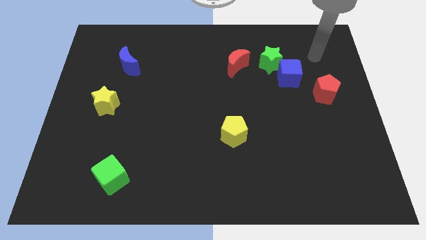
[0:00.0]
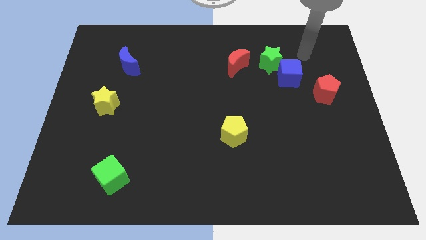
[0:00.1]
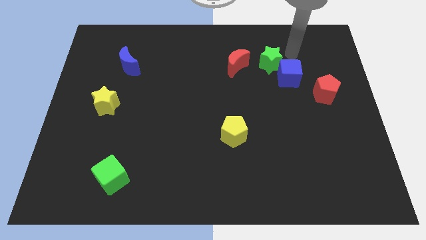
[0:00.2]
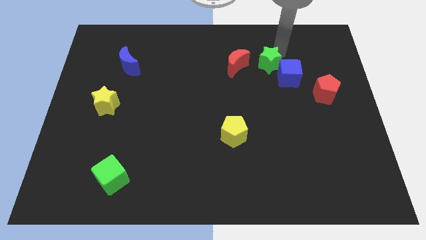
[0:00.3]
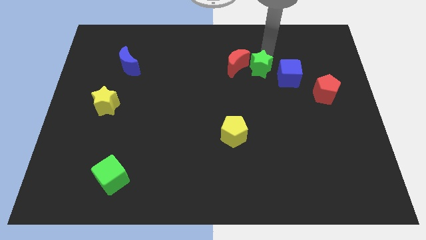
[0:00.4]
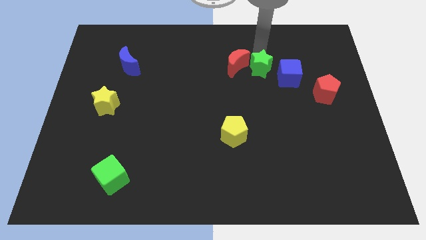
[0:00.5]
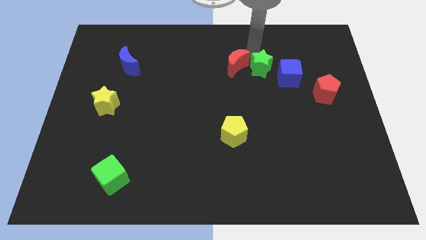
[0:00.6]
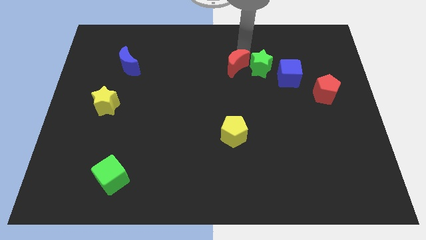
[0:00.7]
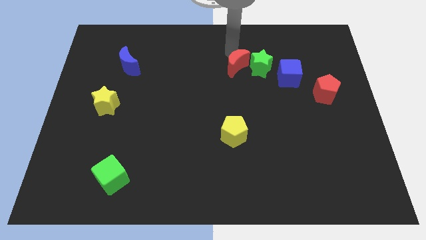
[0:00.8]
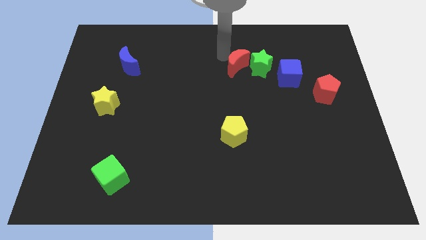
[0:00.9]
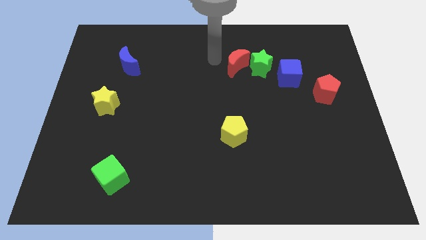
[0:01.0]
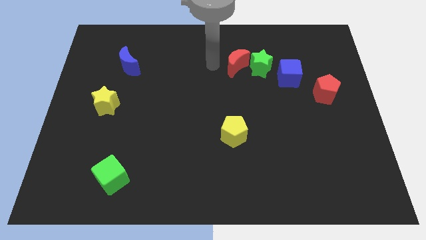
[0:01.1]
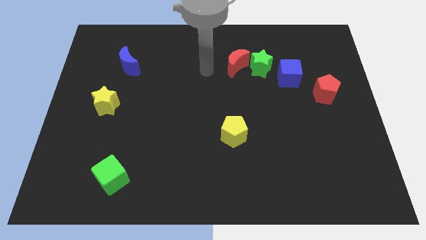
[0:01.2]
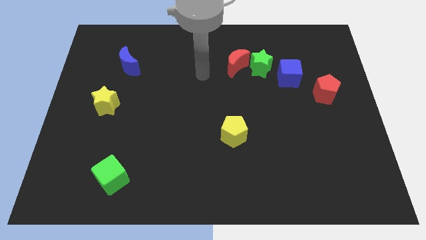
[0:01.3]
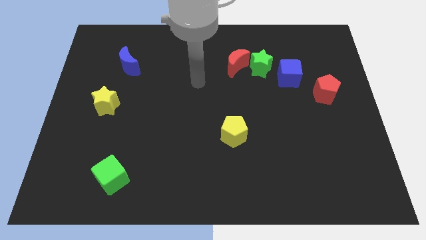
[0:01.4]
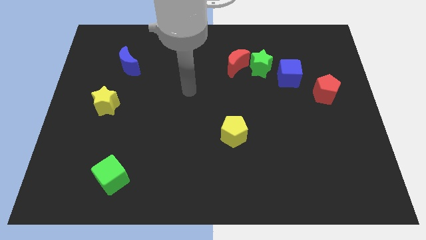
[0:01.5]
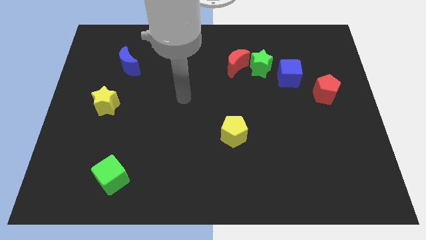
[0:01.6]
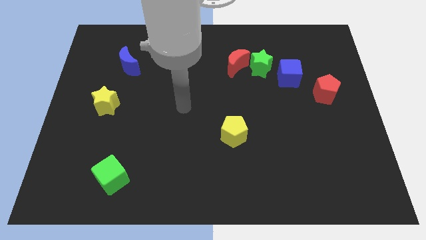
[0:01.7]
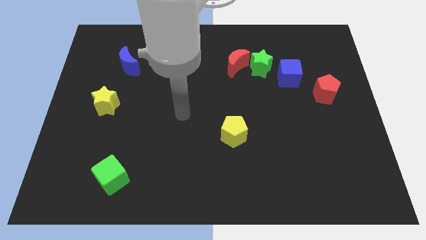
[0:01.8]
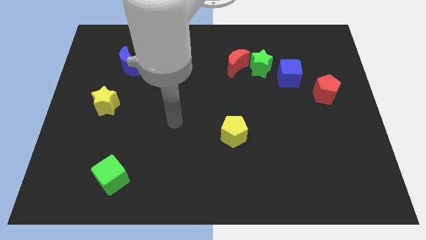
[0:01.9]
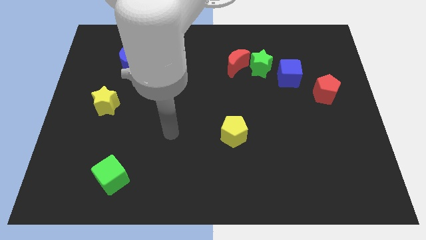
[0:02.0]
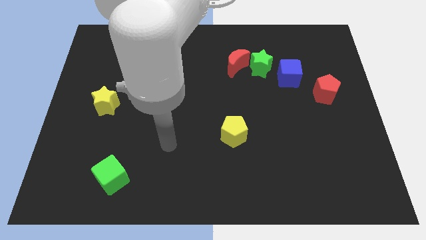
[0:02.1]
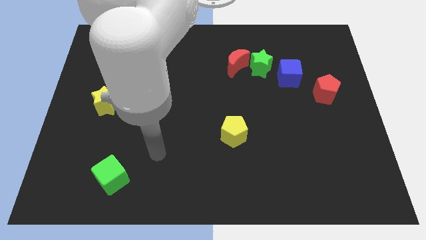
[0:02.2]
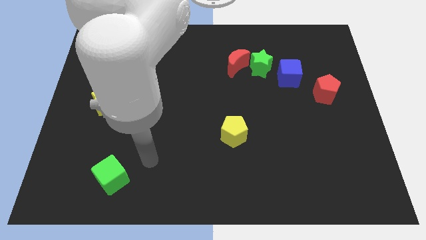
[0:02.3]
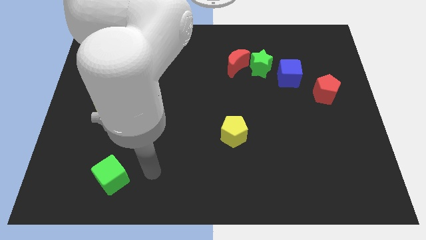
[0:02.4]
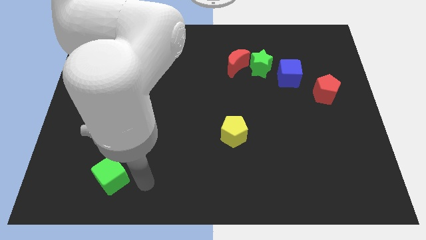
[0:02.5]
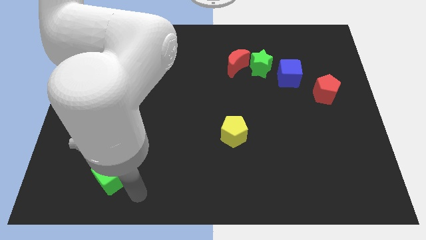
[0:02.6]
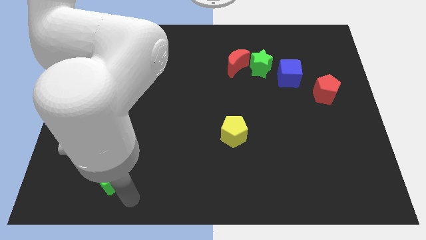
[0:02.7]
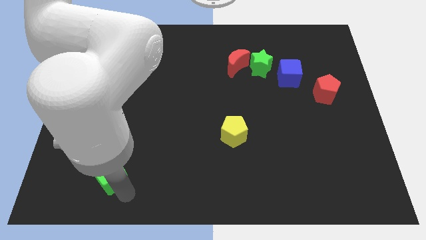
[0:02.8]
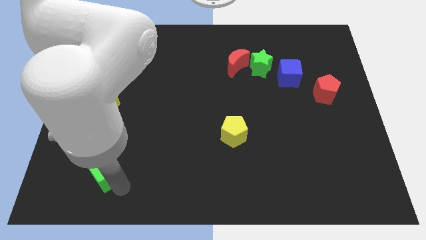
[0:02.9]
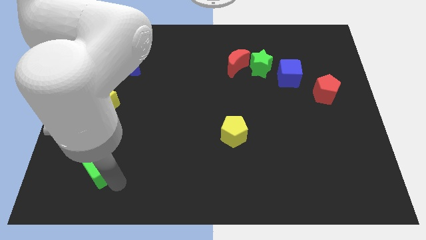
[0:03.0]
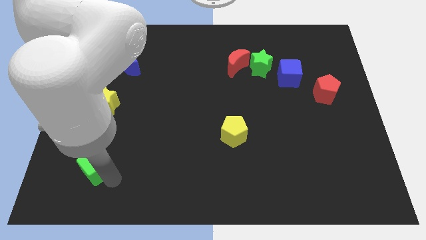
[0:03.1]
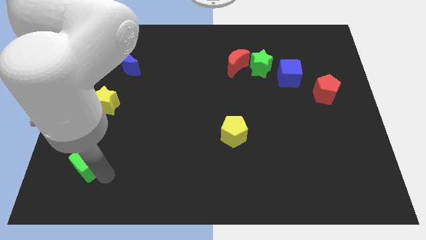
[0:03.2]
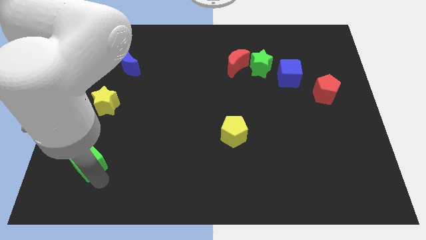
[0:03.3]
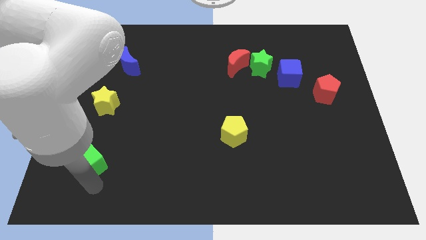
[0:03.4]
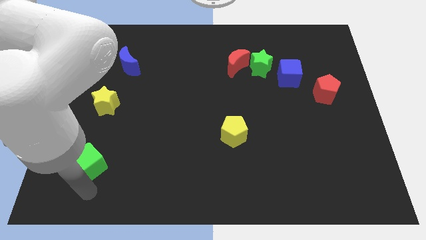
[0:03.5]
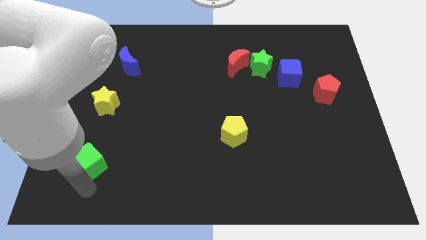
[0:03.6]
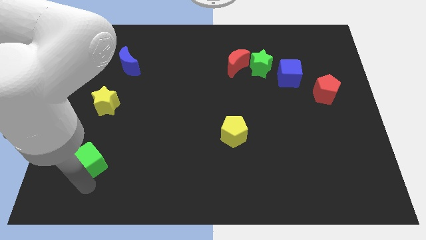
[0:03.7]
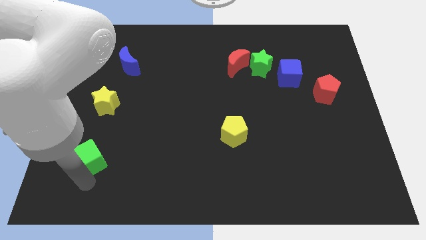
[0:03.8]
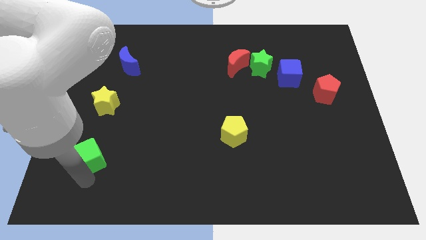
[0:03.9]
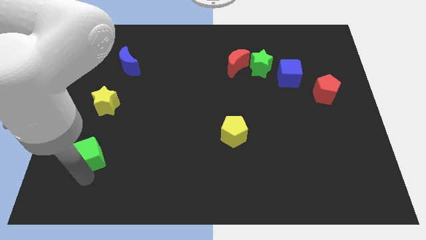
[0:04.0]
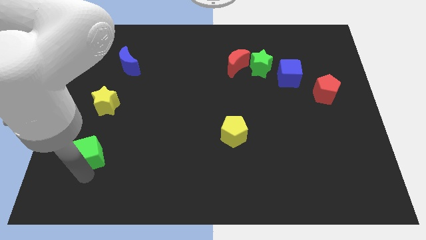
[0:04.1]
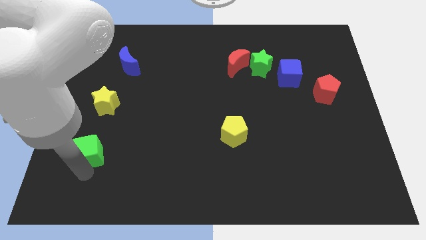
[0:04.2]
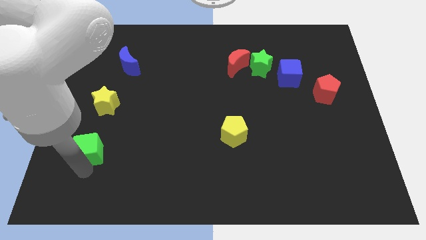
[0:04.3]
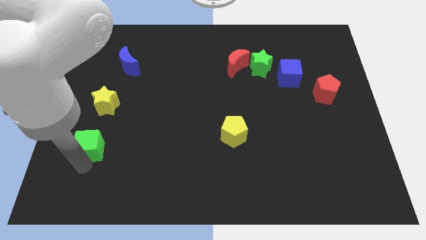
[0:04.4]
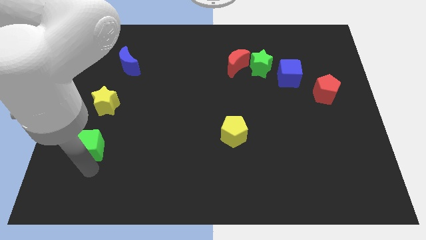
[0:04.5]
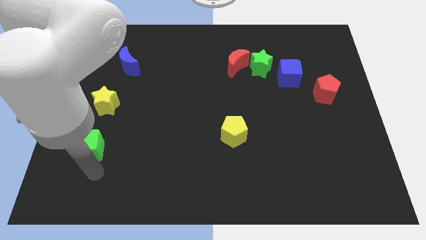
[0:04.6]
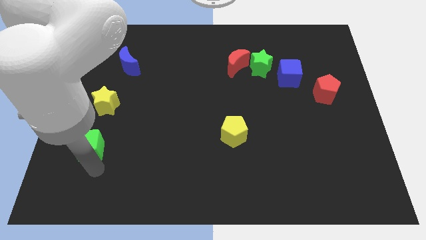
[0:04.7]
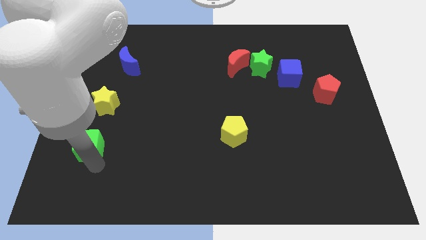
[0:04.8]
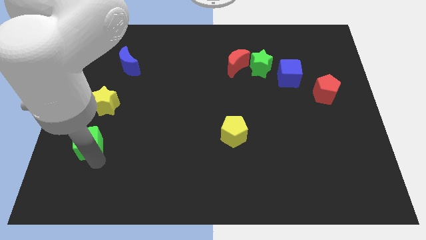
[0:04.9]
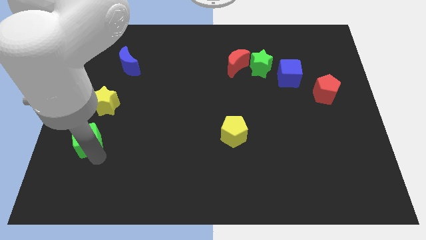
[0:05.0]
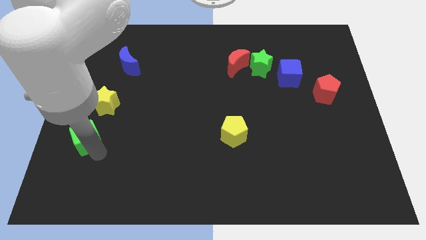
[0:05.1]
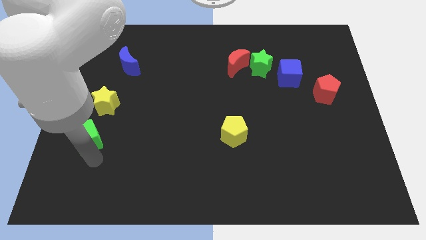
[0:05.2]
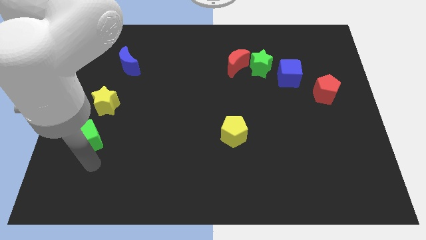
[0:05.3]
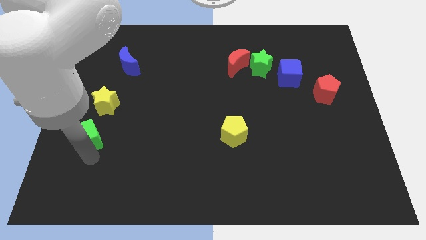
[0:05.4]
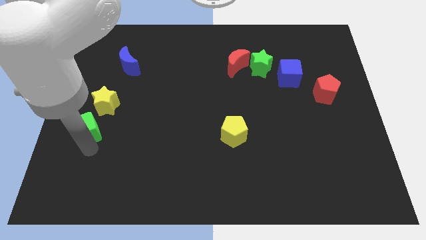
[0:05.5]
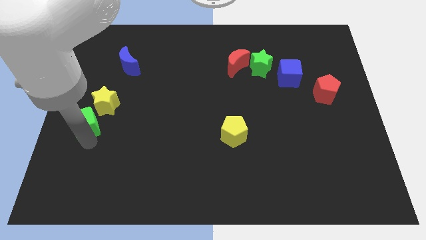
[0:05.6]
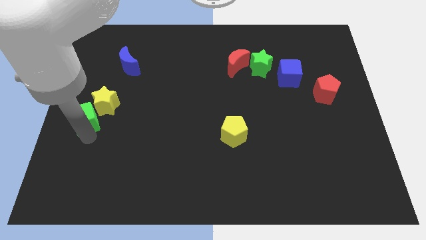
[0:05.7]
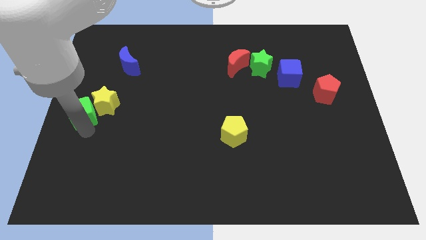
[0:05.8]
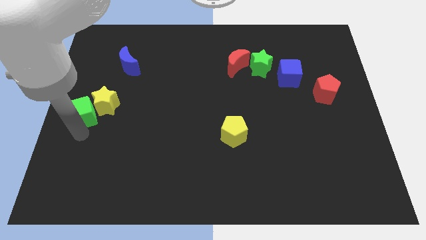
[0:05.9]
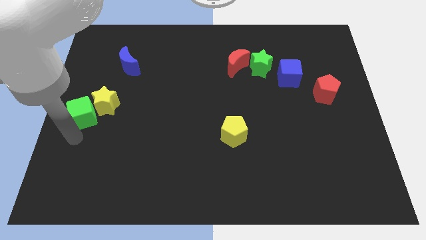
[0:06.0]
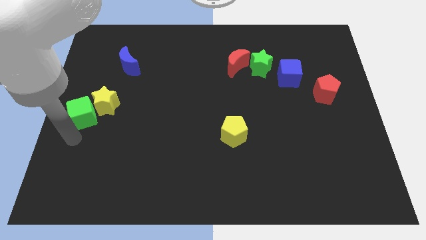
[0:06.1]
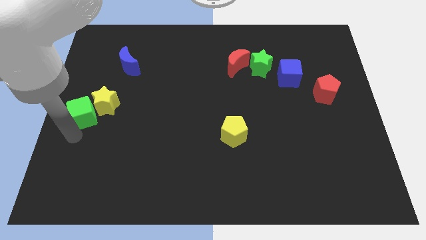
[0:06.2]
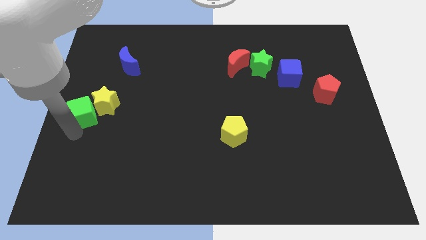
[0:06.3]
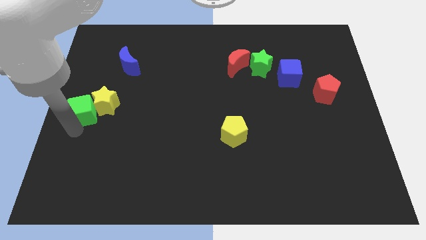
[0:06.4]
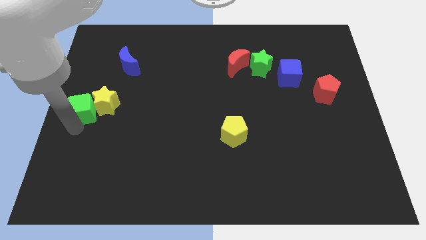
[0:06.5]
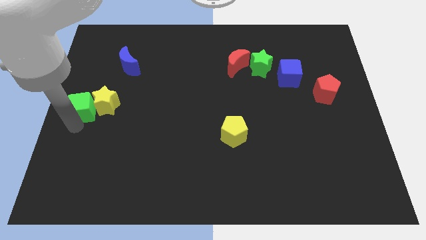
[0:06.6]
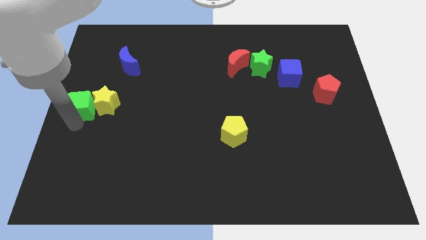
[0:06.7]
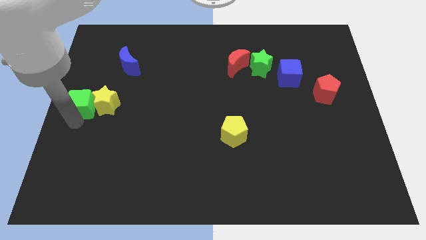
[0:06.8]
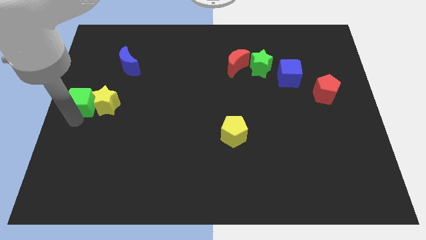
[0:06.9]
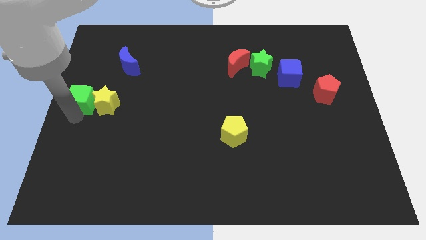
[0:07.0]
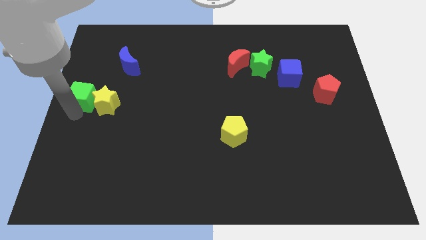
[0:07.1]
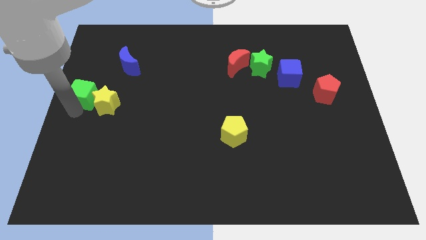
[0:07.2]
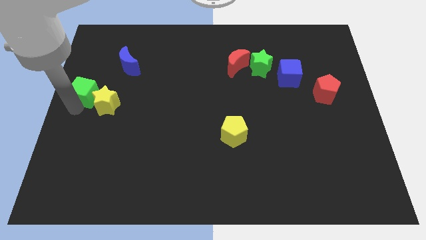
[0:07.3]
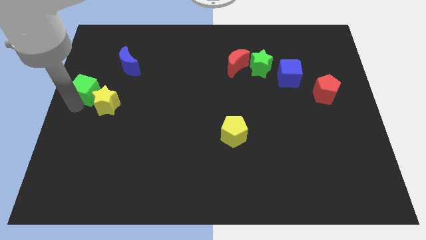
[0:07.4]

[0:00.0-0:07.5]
put the green cube diagonally down and to the left of the blue moon
